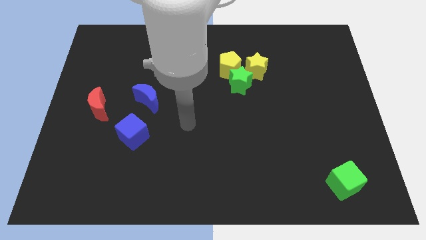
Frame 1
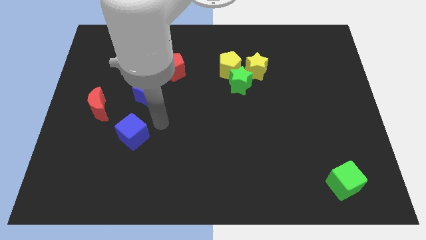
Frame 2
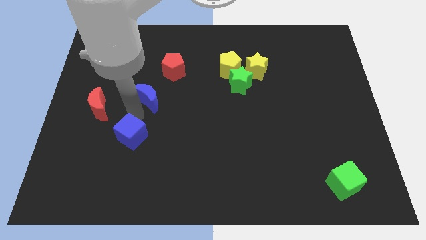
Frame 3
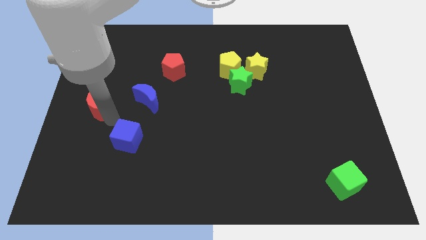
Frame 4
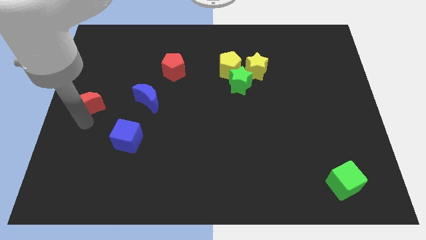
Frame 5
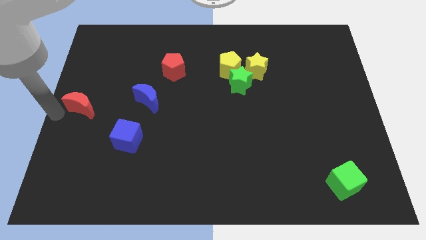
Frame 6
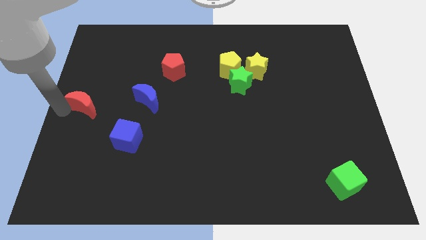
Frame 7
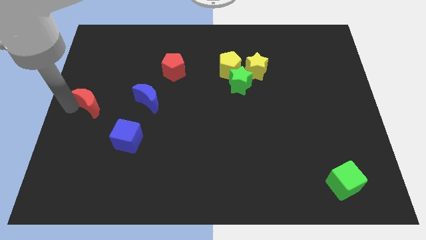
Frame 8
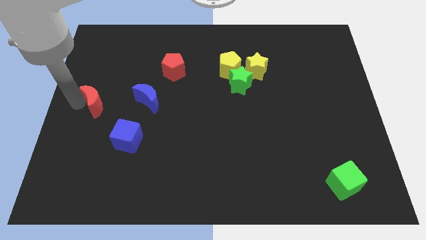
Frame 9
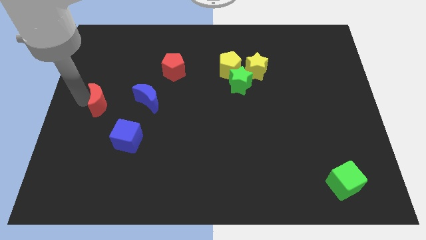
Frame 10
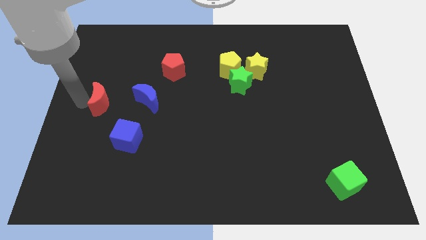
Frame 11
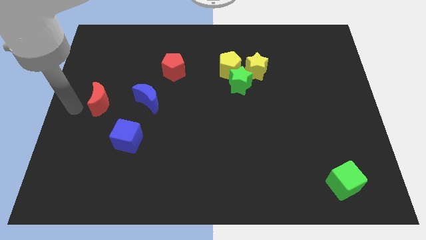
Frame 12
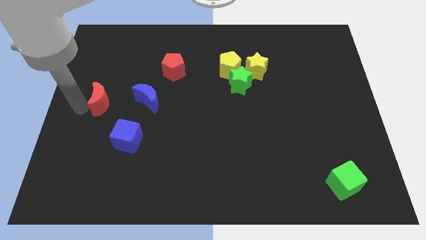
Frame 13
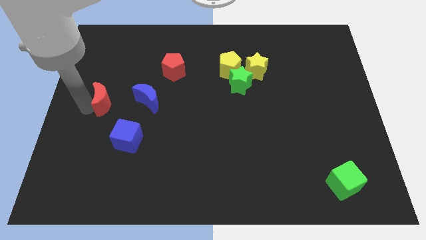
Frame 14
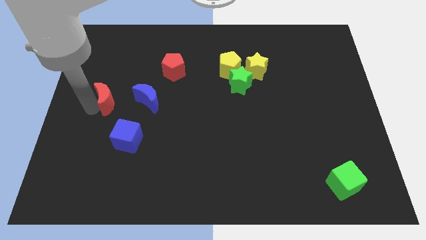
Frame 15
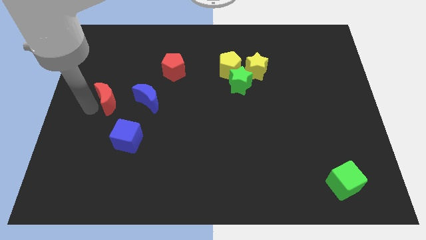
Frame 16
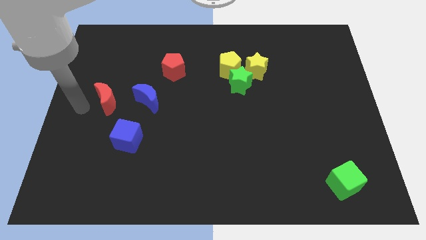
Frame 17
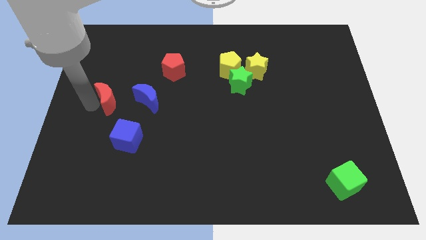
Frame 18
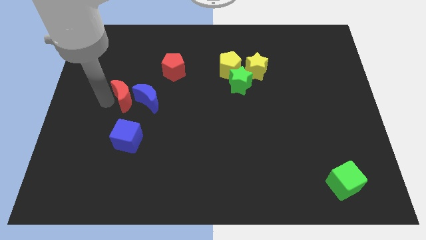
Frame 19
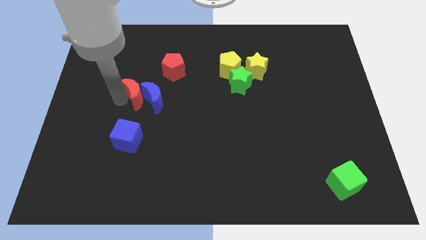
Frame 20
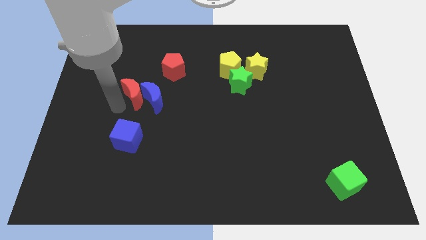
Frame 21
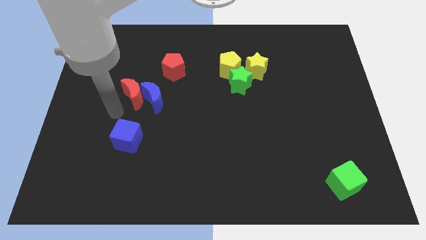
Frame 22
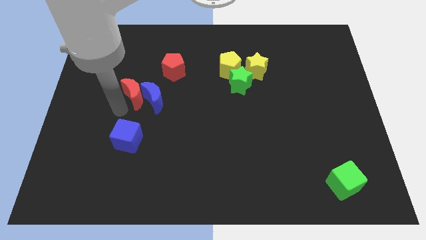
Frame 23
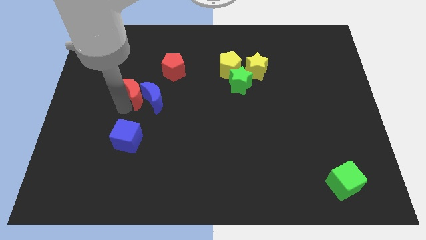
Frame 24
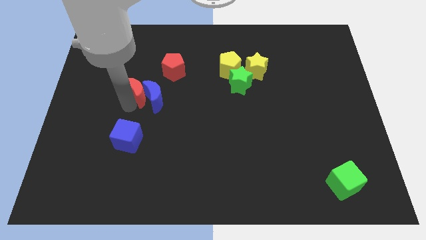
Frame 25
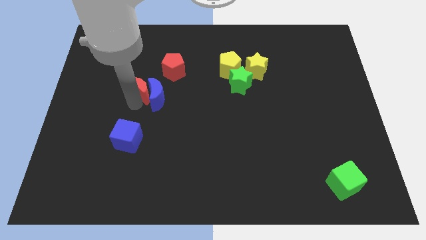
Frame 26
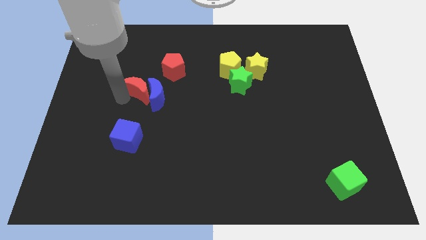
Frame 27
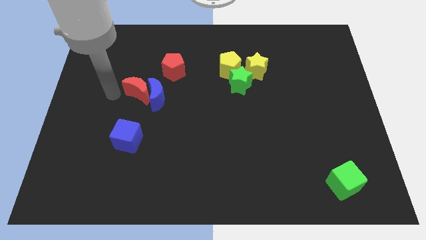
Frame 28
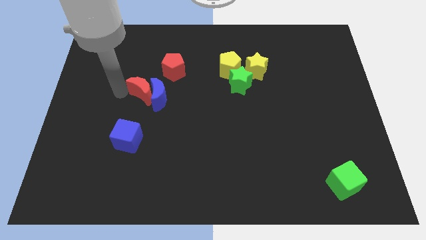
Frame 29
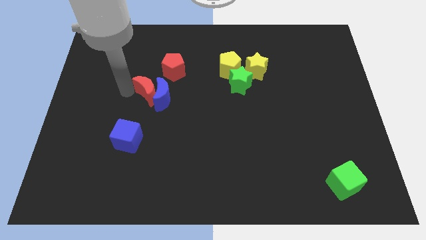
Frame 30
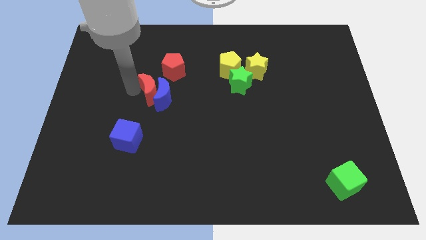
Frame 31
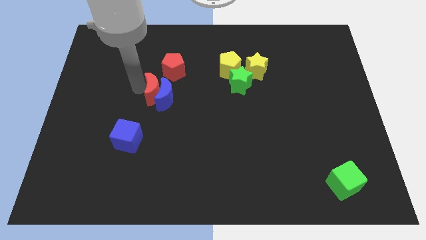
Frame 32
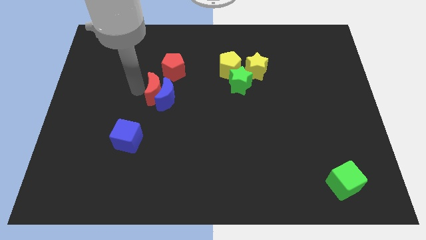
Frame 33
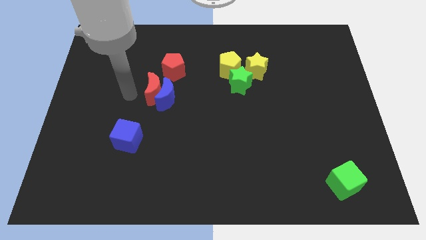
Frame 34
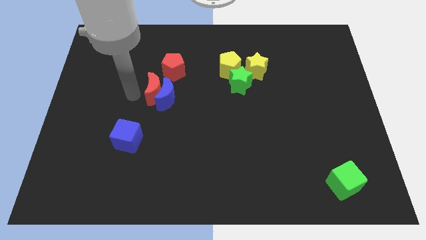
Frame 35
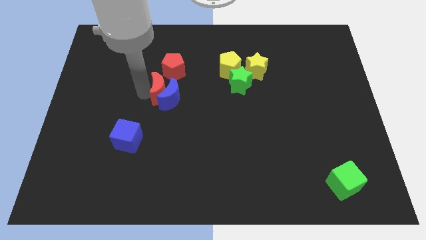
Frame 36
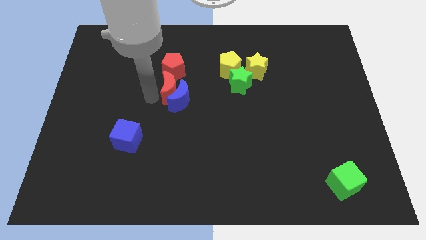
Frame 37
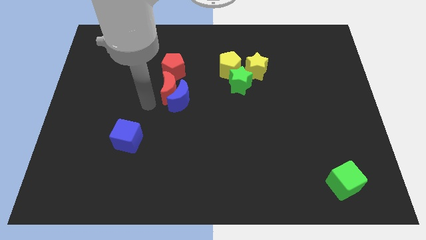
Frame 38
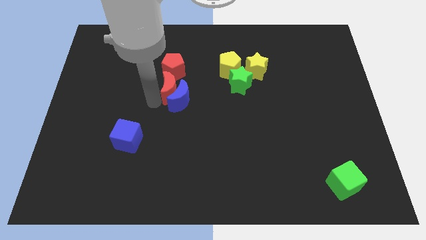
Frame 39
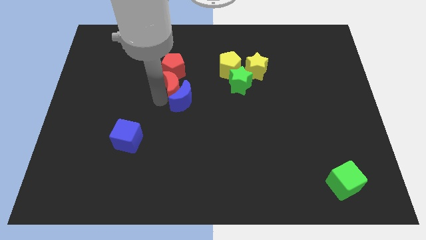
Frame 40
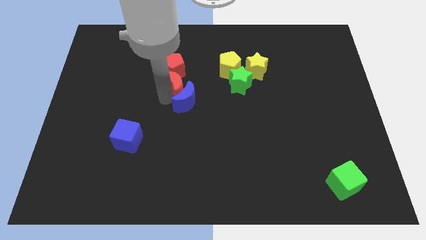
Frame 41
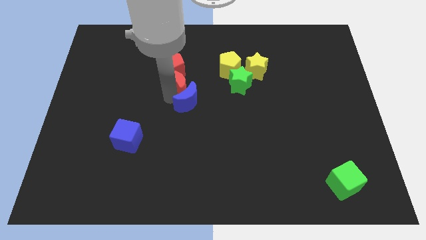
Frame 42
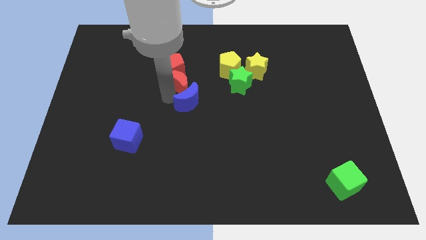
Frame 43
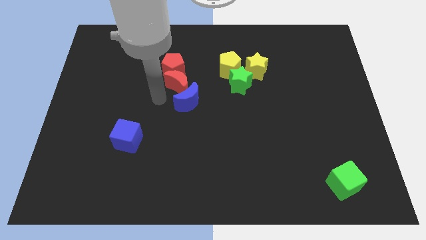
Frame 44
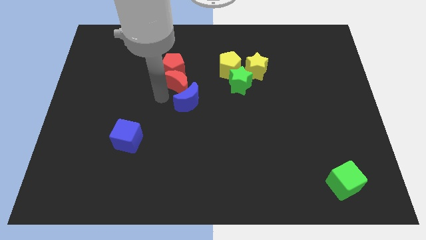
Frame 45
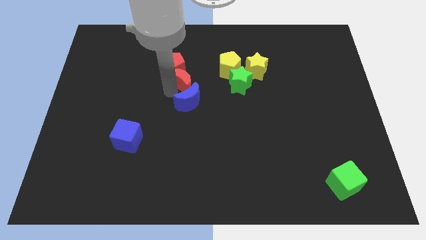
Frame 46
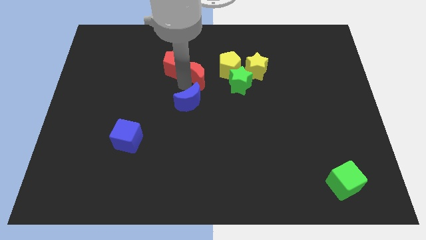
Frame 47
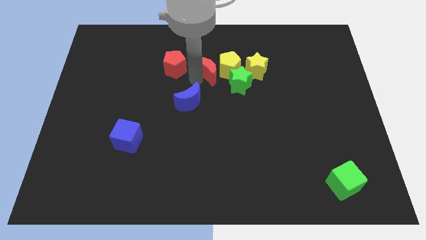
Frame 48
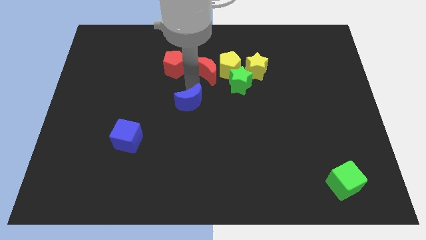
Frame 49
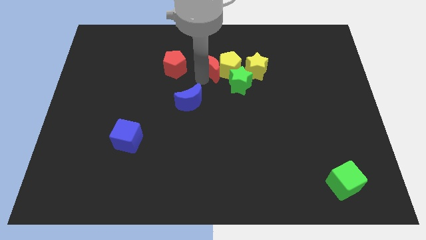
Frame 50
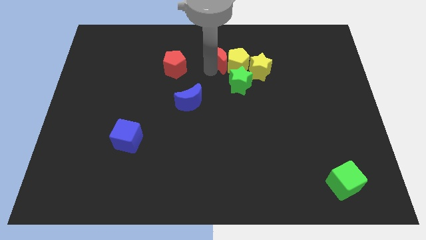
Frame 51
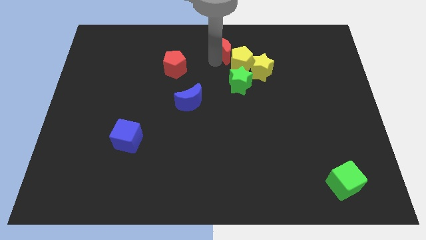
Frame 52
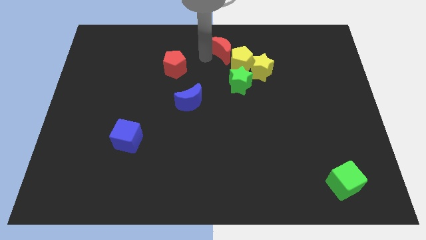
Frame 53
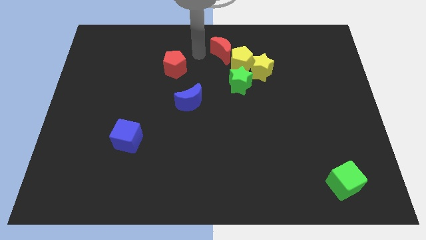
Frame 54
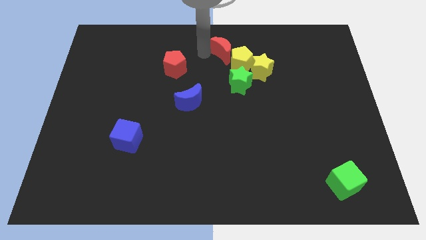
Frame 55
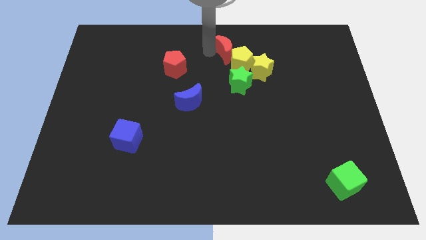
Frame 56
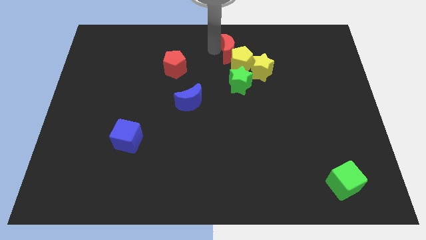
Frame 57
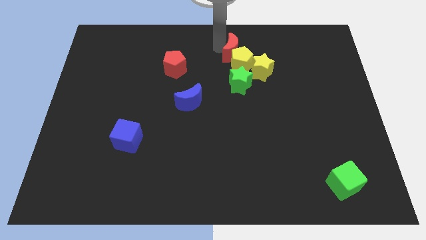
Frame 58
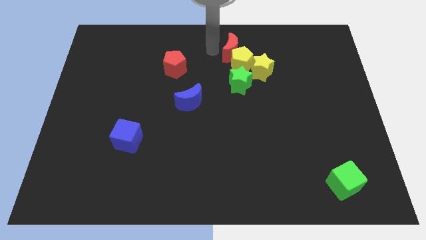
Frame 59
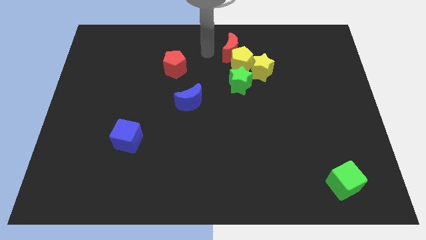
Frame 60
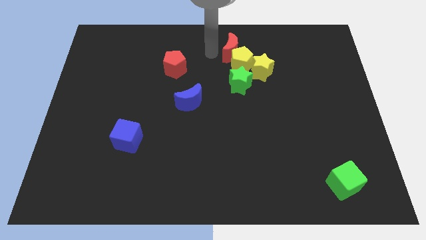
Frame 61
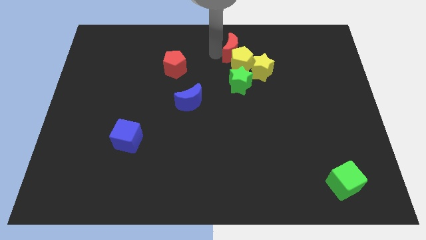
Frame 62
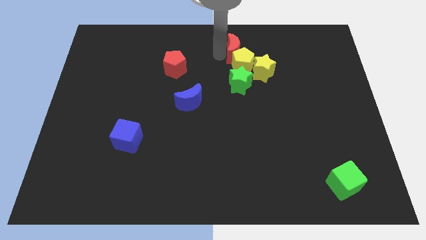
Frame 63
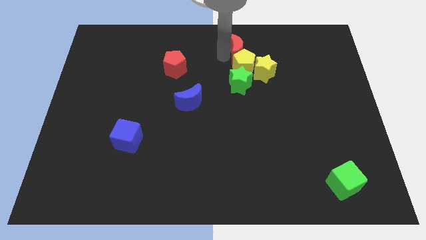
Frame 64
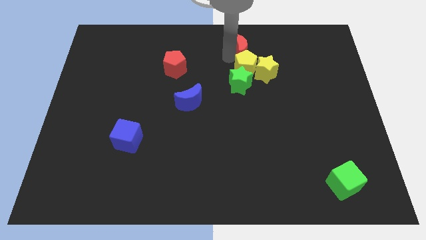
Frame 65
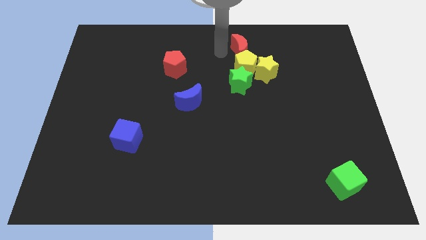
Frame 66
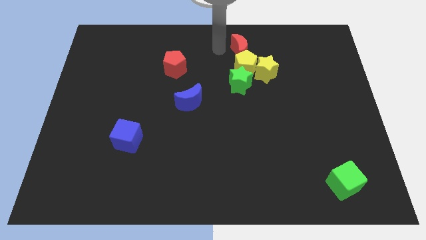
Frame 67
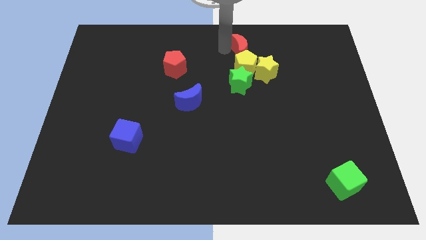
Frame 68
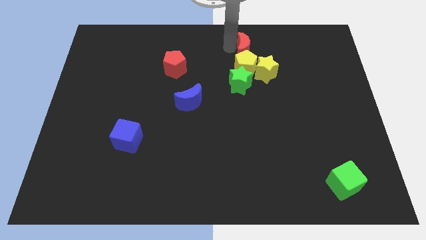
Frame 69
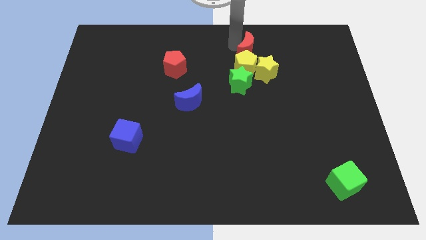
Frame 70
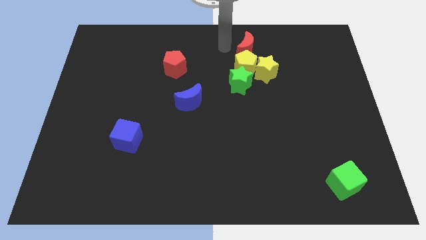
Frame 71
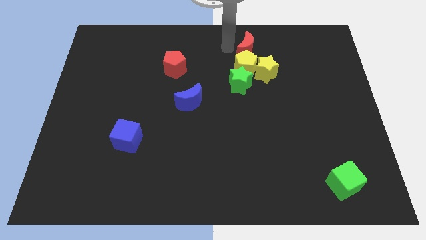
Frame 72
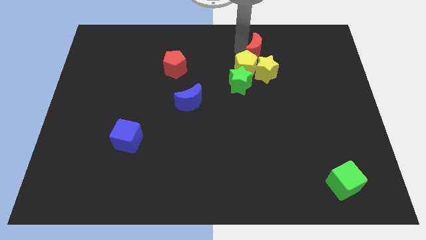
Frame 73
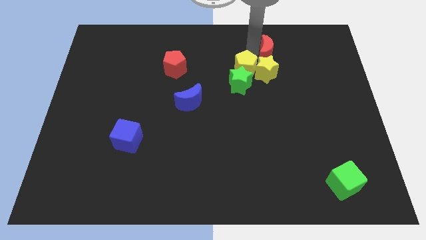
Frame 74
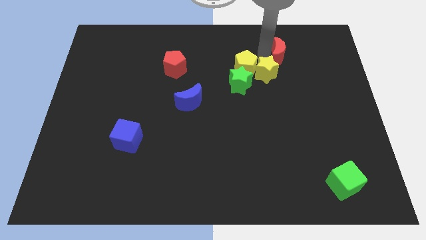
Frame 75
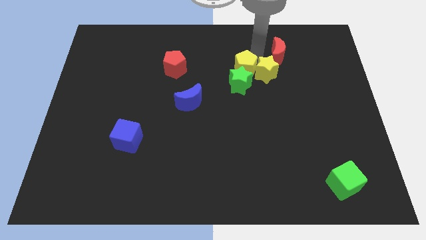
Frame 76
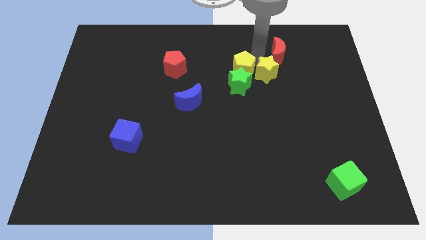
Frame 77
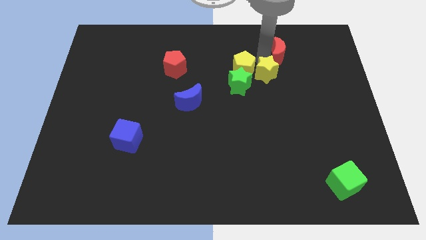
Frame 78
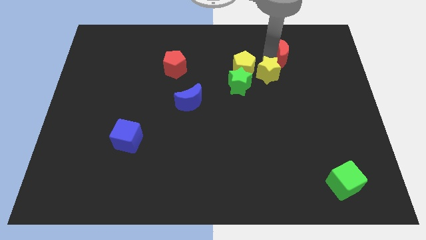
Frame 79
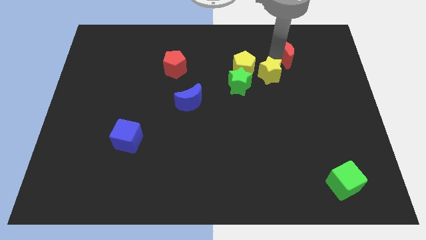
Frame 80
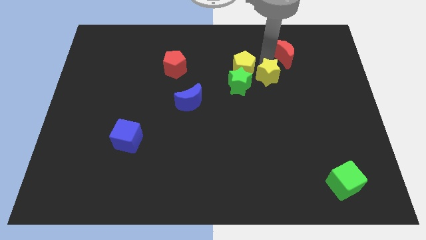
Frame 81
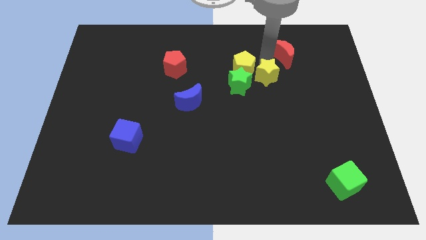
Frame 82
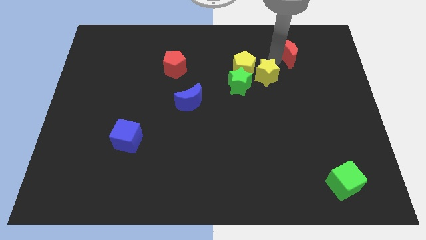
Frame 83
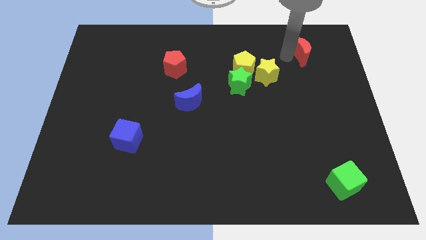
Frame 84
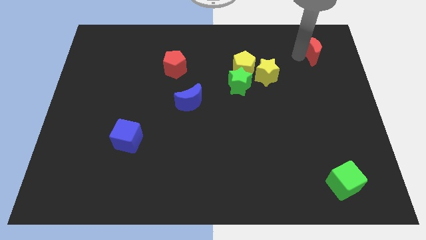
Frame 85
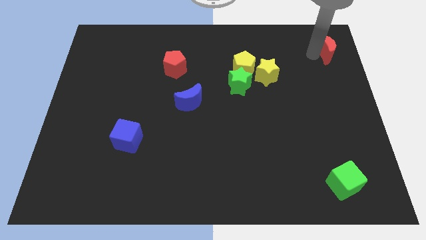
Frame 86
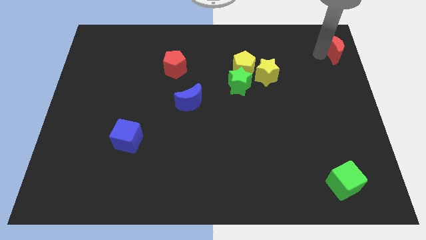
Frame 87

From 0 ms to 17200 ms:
push the red moon to the top right
